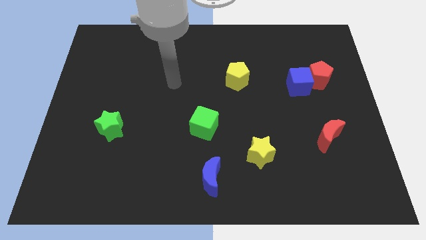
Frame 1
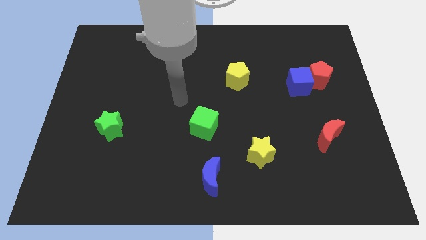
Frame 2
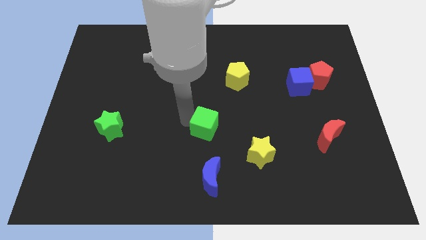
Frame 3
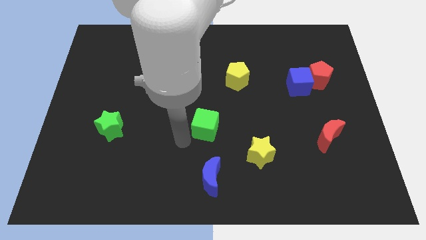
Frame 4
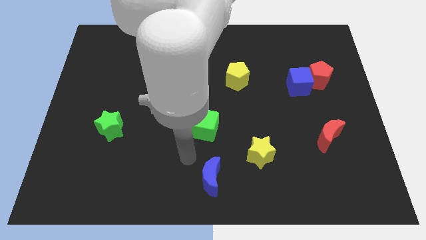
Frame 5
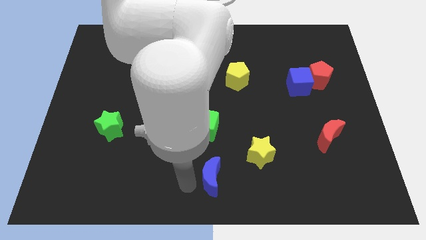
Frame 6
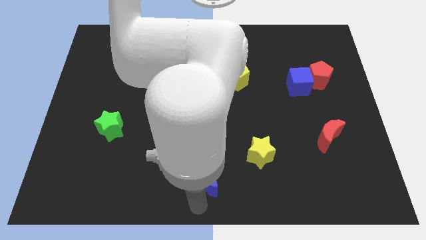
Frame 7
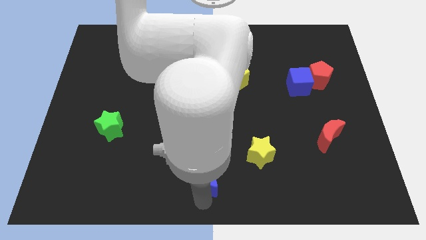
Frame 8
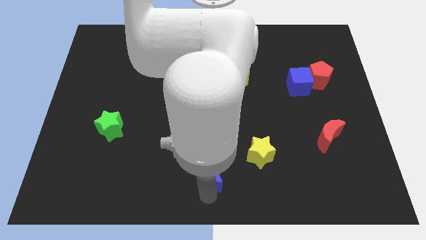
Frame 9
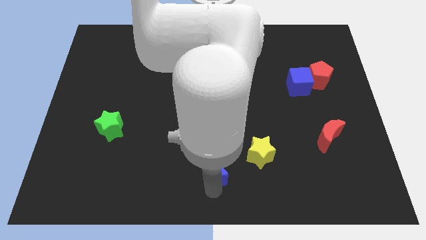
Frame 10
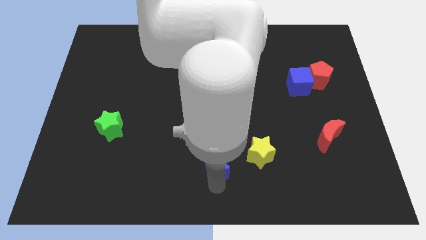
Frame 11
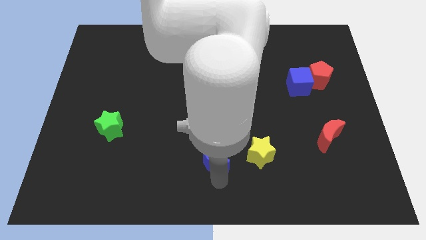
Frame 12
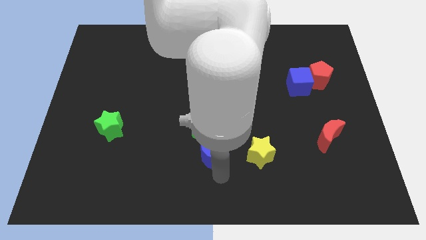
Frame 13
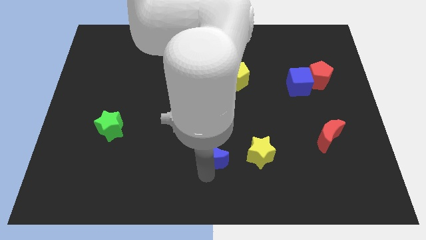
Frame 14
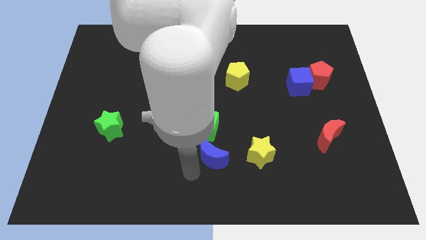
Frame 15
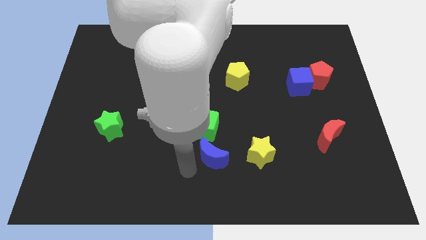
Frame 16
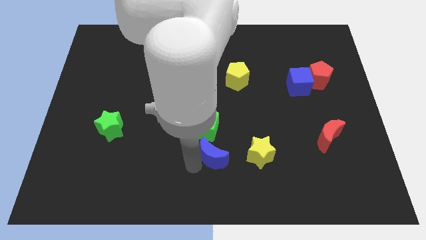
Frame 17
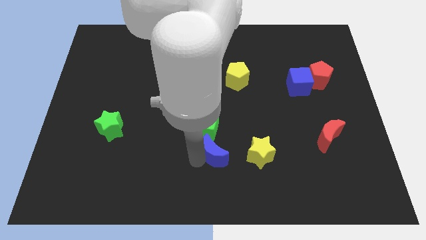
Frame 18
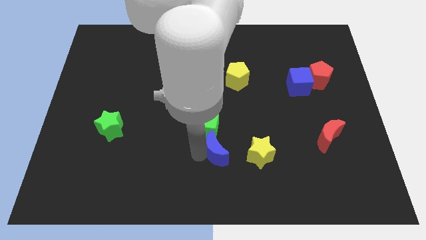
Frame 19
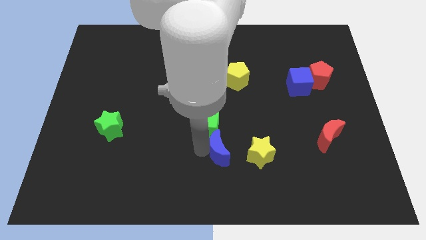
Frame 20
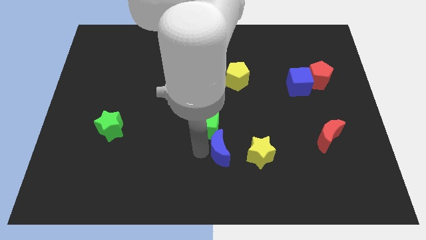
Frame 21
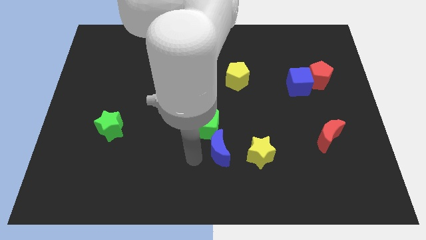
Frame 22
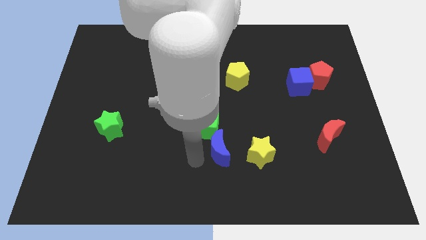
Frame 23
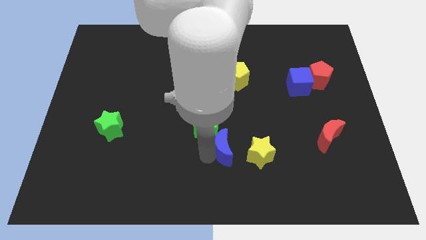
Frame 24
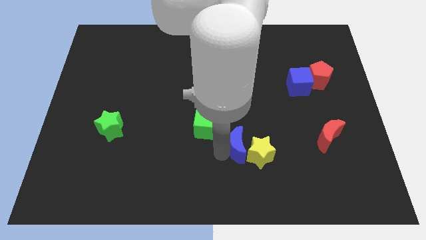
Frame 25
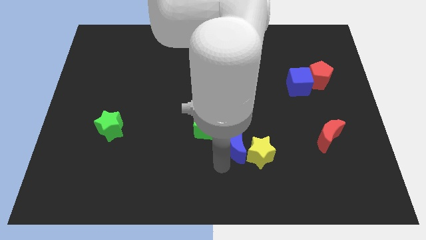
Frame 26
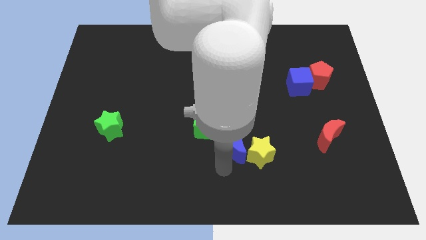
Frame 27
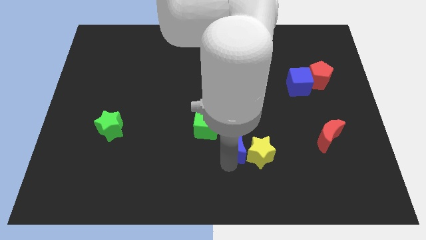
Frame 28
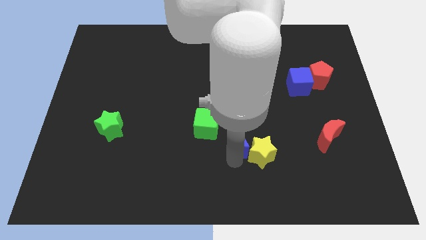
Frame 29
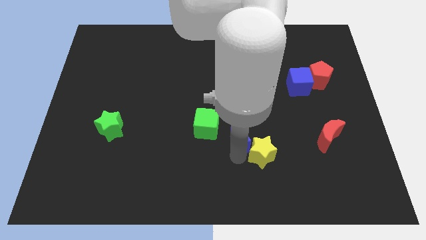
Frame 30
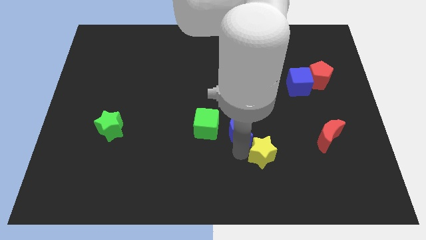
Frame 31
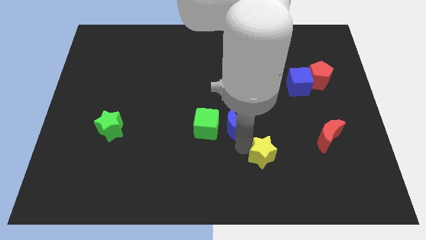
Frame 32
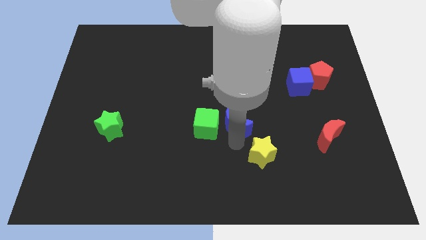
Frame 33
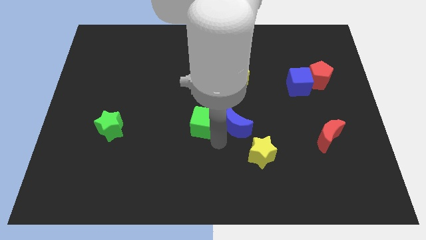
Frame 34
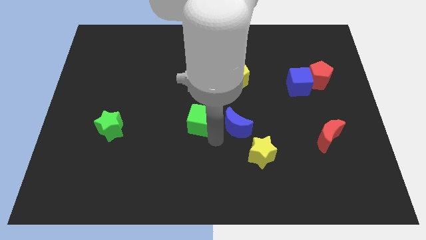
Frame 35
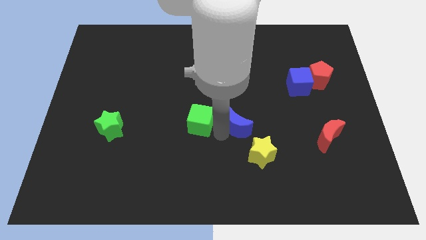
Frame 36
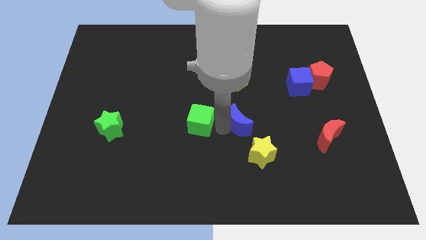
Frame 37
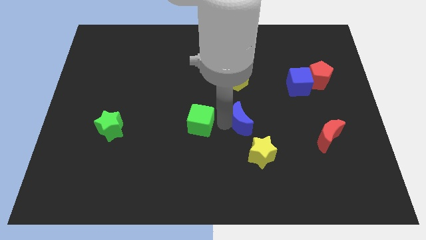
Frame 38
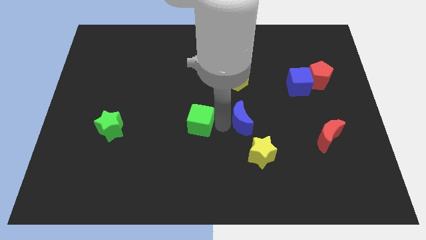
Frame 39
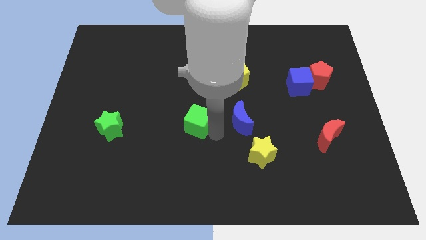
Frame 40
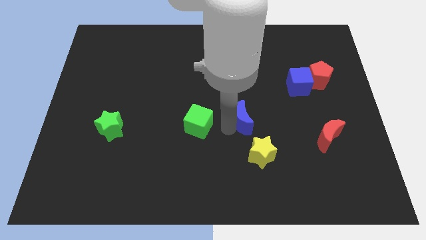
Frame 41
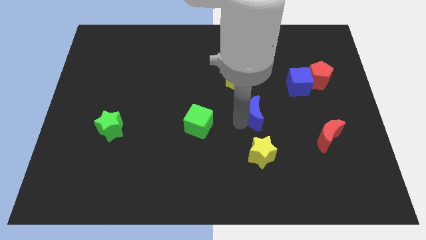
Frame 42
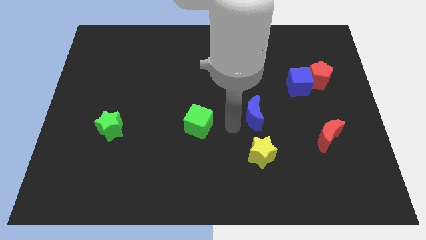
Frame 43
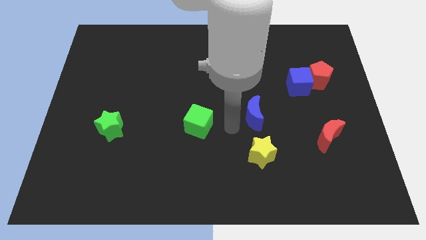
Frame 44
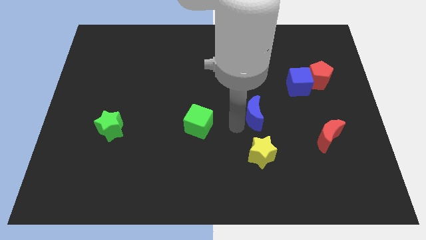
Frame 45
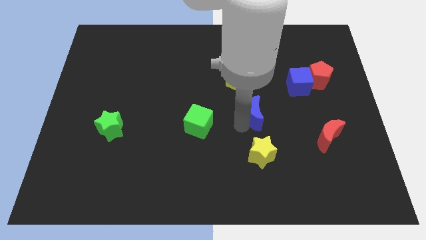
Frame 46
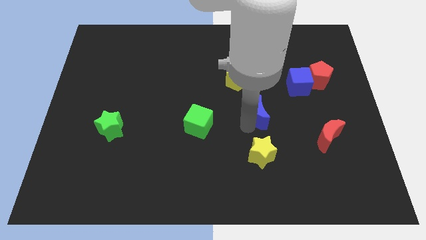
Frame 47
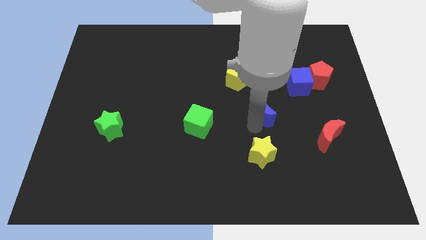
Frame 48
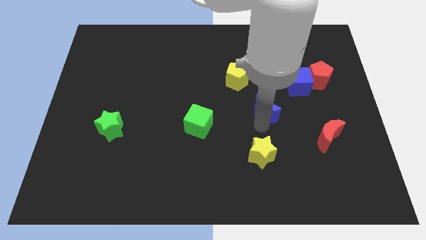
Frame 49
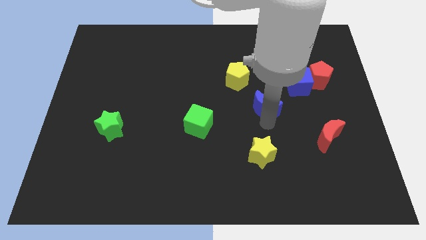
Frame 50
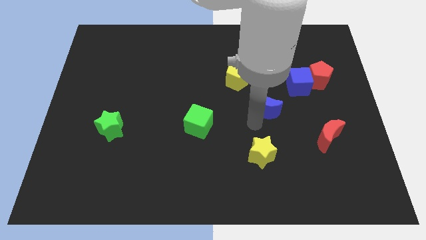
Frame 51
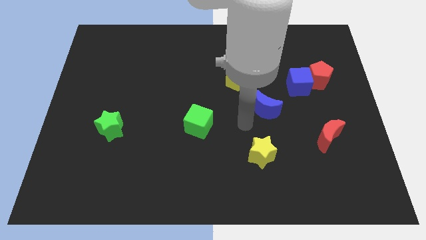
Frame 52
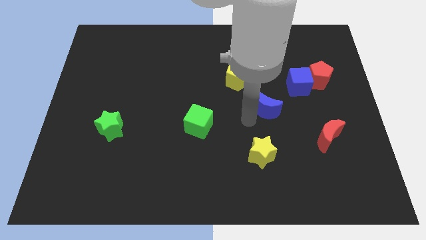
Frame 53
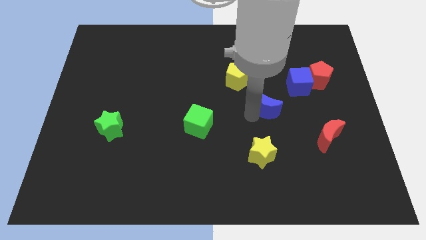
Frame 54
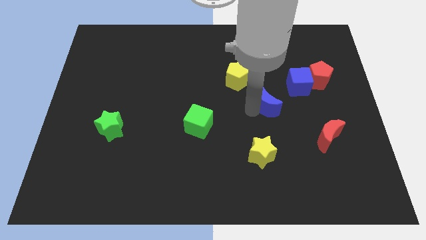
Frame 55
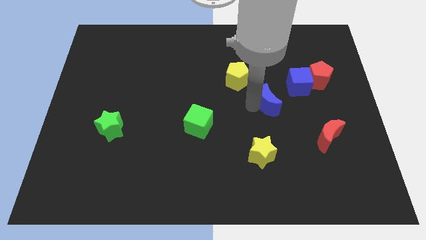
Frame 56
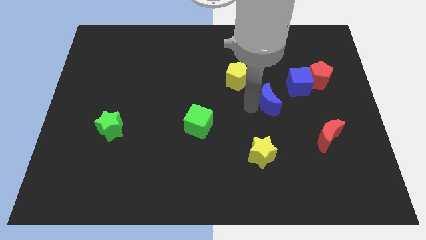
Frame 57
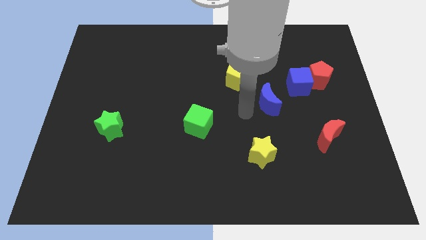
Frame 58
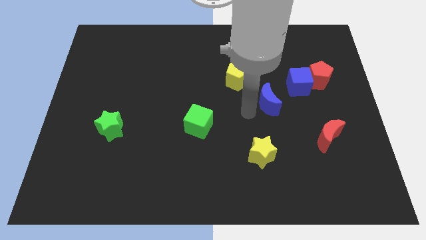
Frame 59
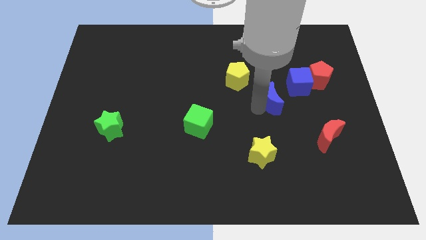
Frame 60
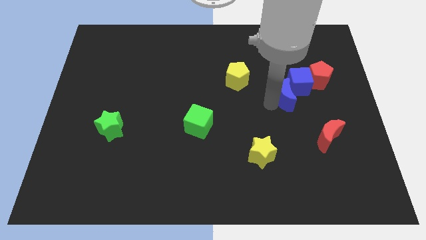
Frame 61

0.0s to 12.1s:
slide the blue moon close to the blue cube
